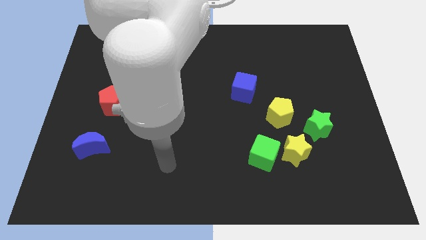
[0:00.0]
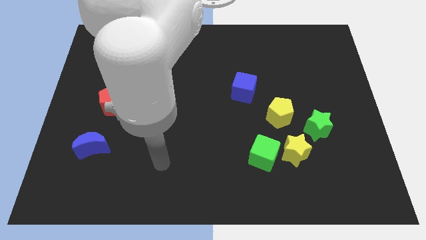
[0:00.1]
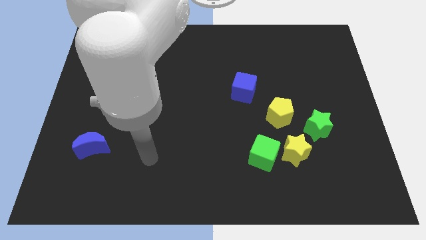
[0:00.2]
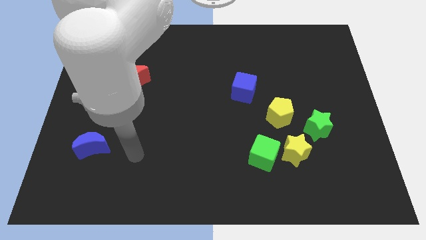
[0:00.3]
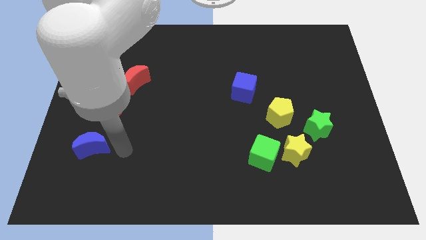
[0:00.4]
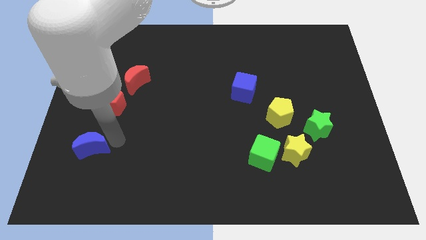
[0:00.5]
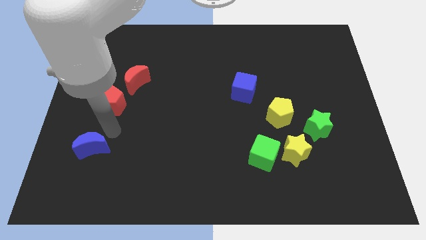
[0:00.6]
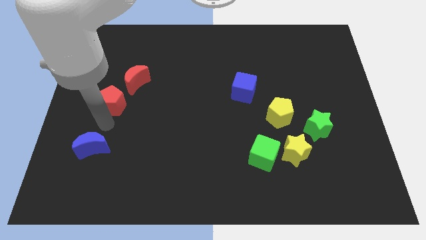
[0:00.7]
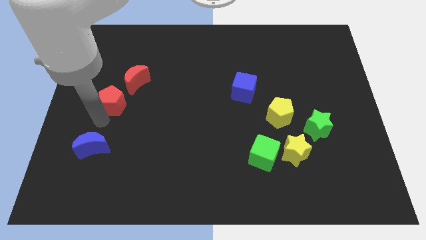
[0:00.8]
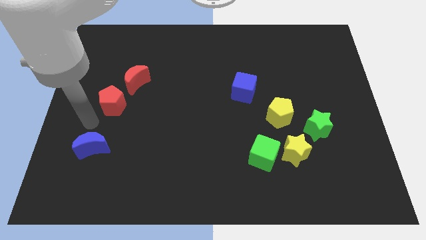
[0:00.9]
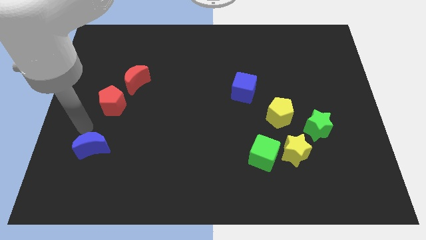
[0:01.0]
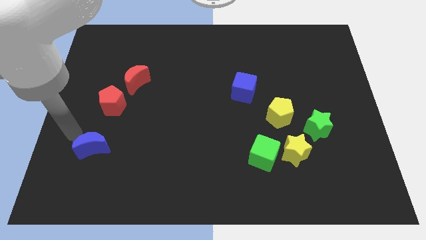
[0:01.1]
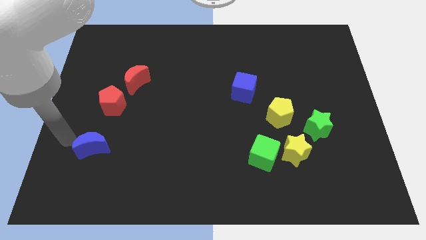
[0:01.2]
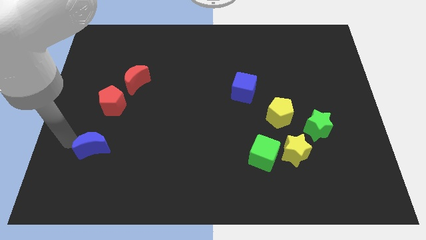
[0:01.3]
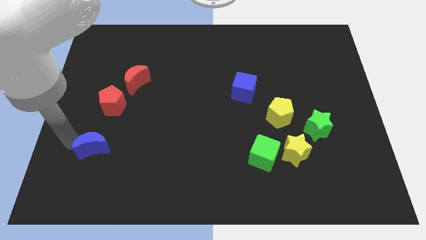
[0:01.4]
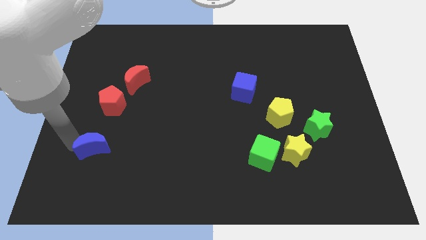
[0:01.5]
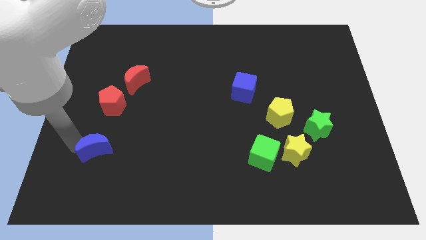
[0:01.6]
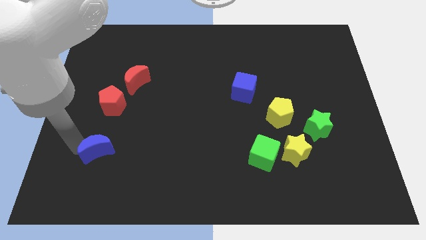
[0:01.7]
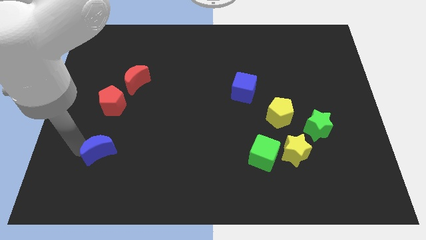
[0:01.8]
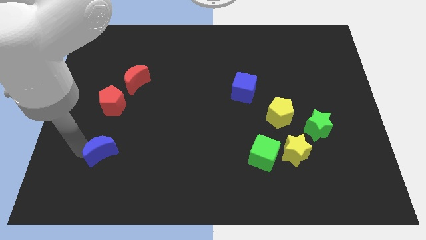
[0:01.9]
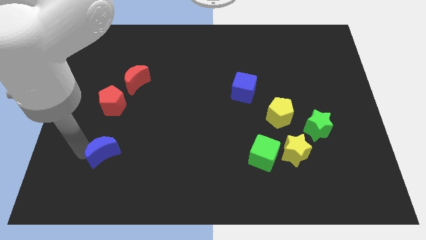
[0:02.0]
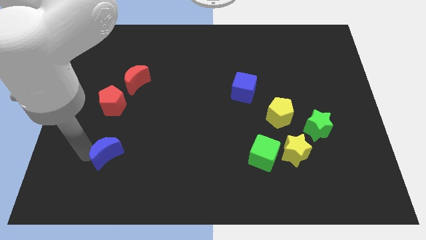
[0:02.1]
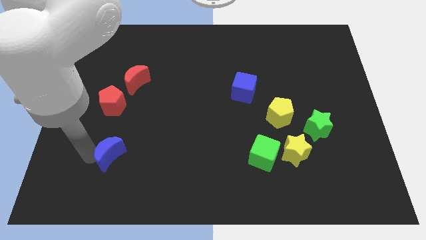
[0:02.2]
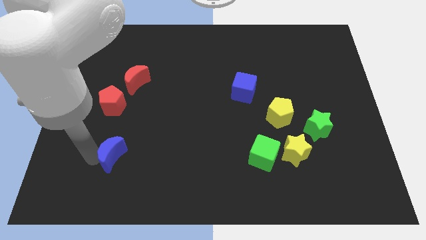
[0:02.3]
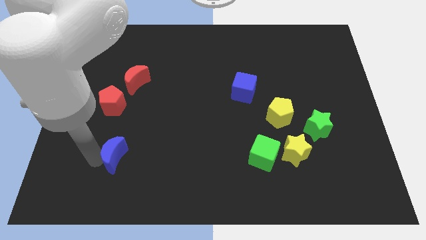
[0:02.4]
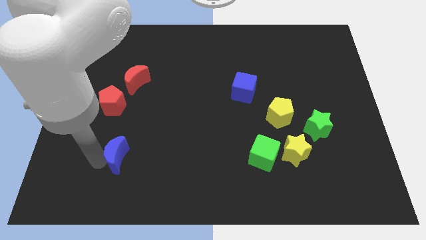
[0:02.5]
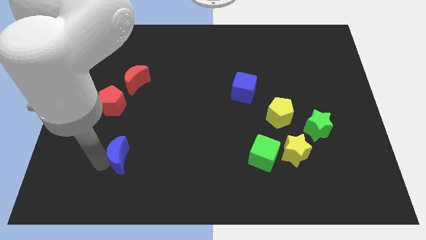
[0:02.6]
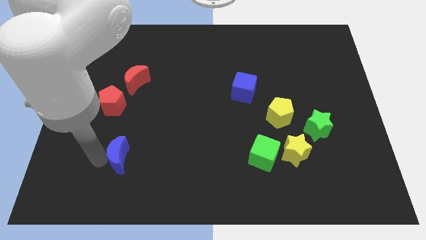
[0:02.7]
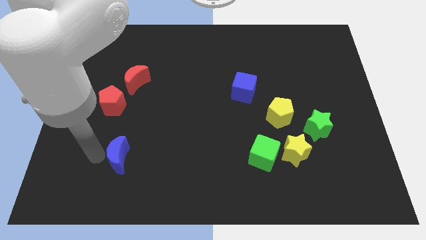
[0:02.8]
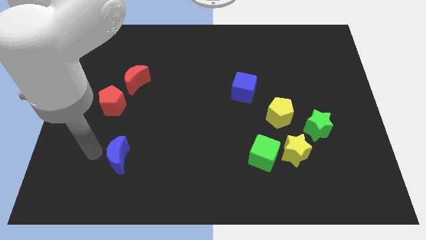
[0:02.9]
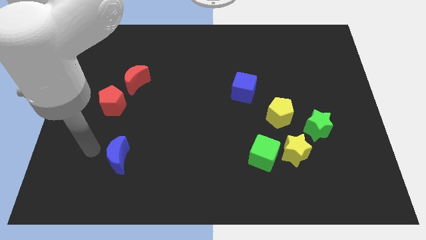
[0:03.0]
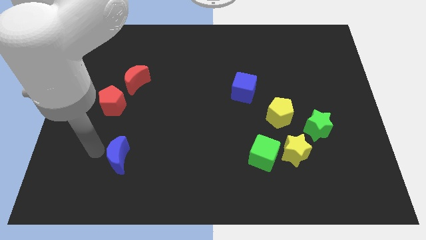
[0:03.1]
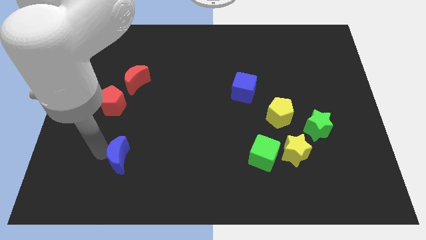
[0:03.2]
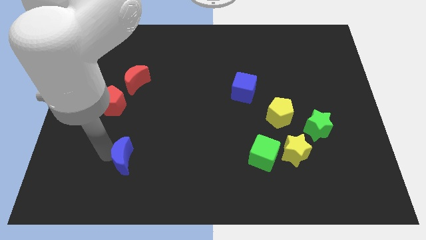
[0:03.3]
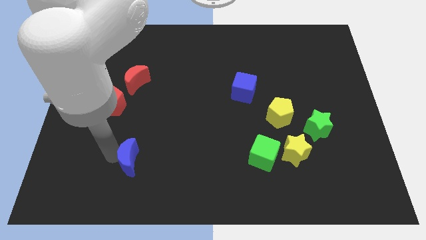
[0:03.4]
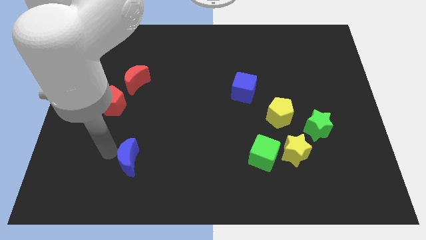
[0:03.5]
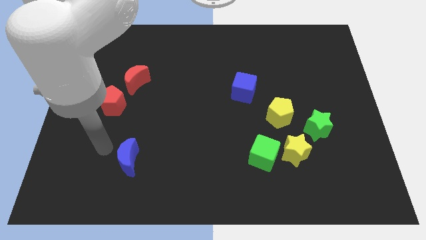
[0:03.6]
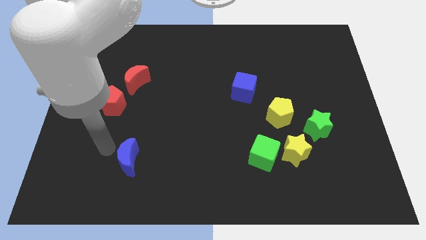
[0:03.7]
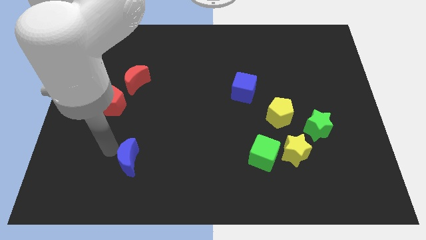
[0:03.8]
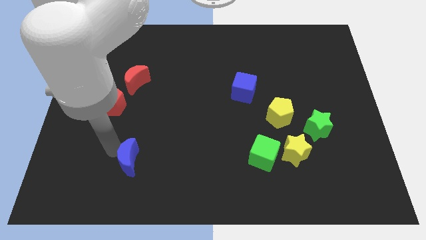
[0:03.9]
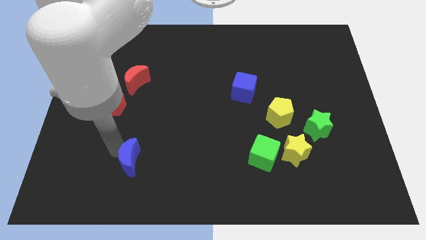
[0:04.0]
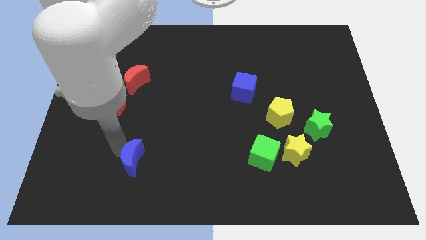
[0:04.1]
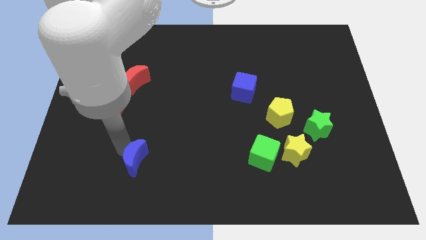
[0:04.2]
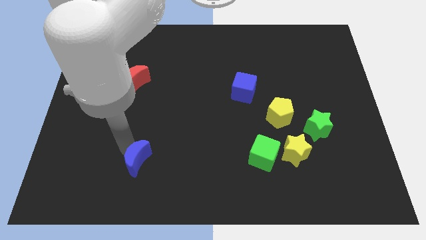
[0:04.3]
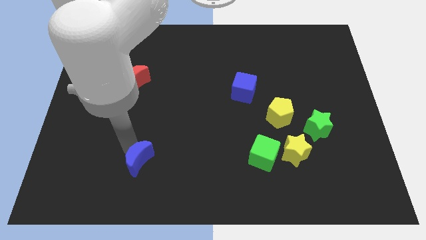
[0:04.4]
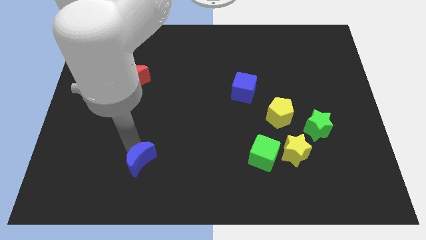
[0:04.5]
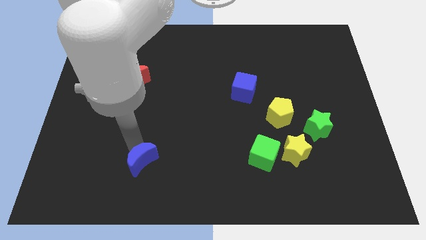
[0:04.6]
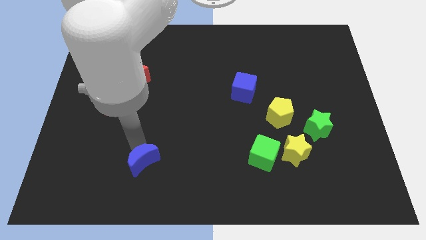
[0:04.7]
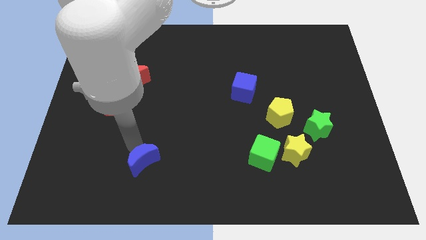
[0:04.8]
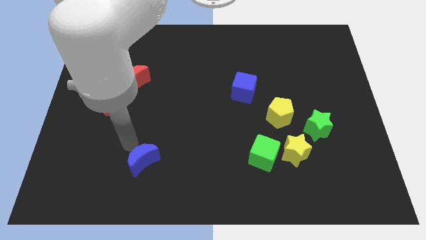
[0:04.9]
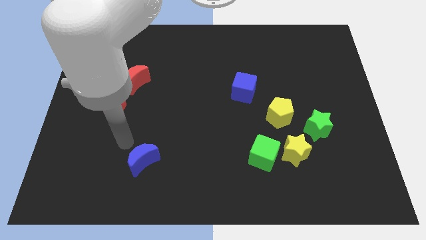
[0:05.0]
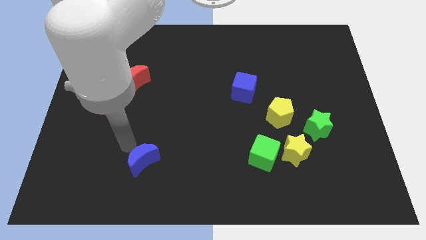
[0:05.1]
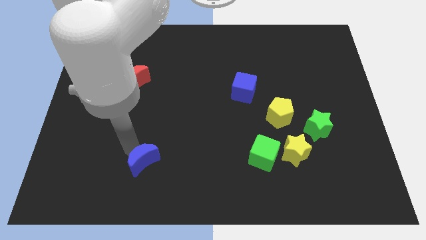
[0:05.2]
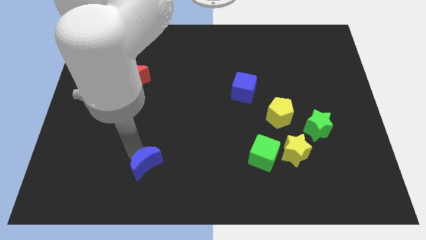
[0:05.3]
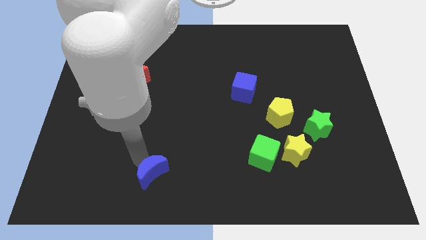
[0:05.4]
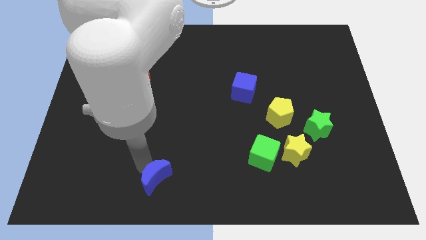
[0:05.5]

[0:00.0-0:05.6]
put the blue moon to the bottom side
